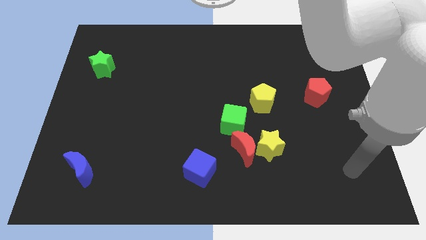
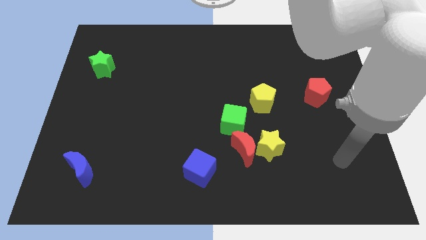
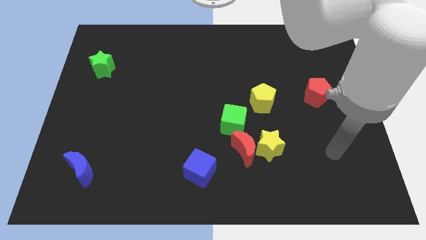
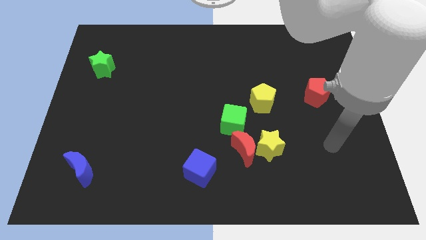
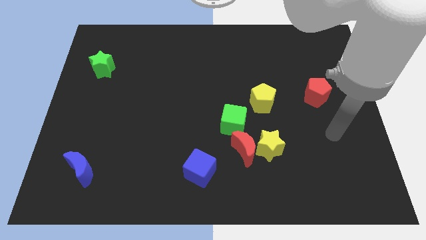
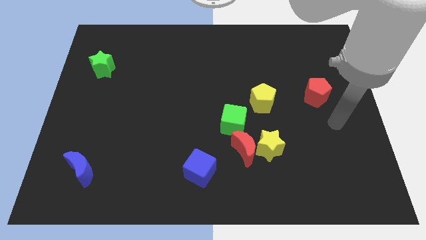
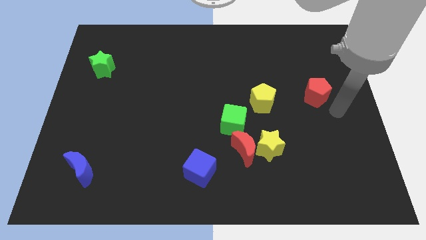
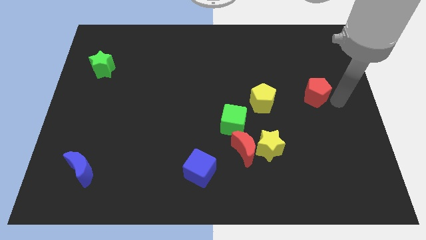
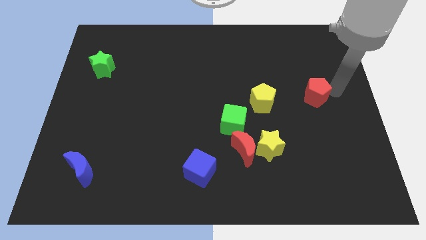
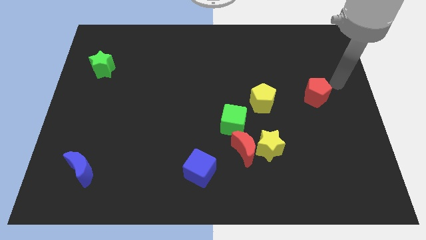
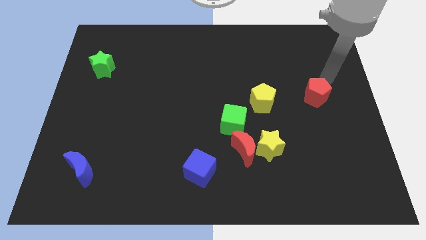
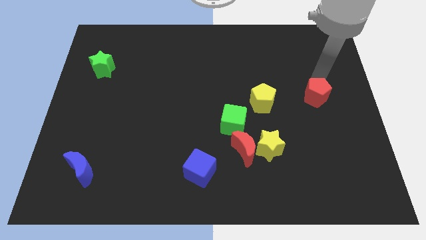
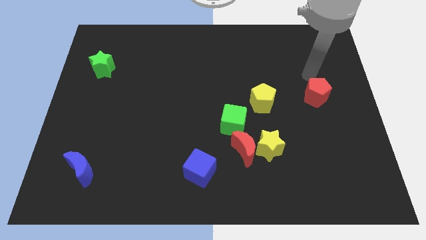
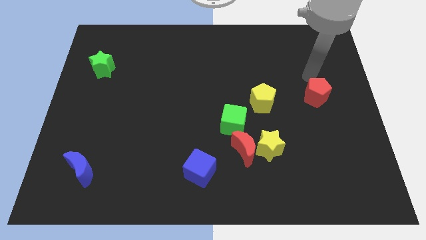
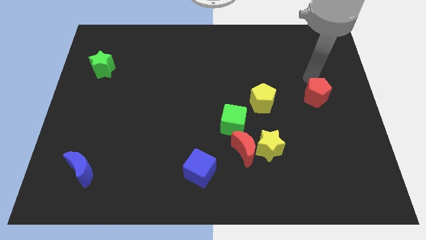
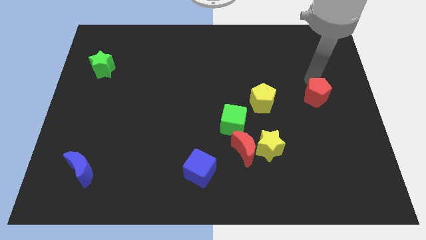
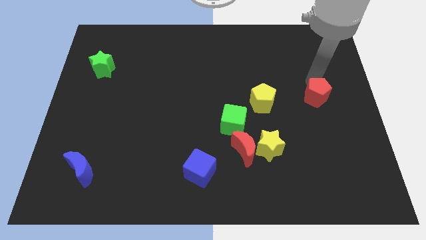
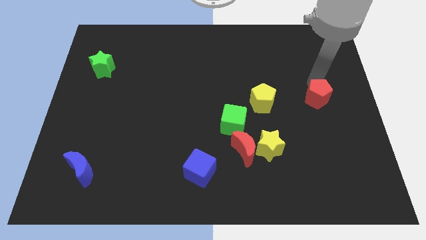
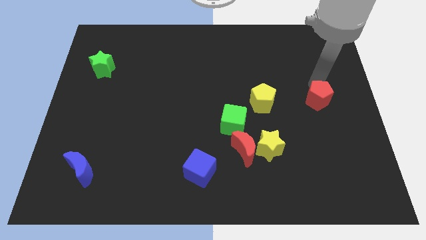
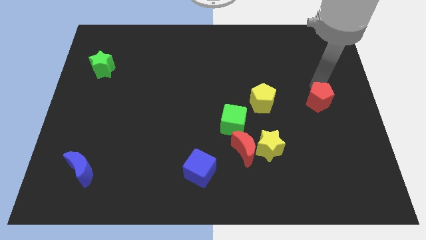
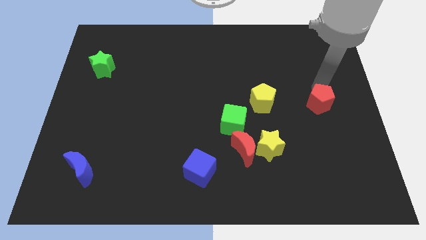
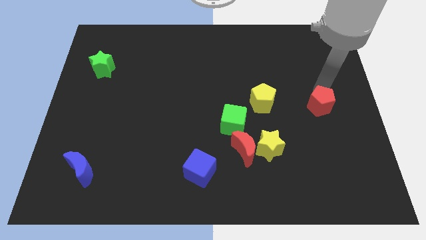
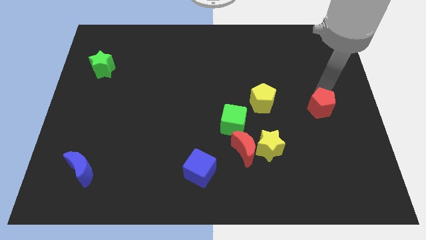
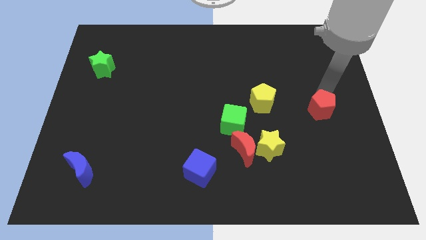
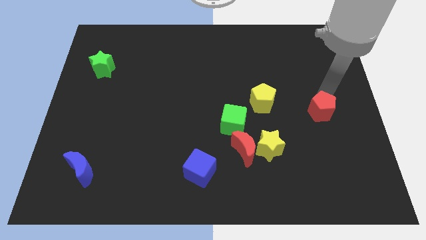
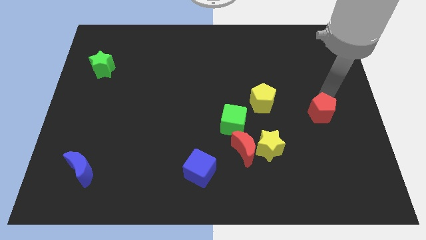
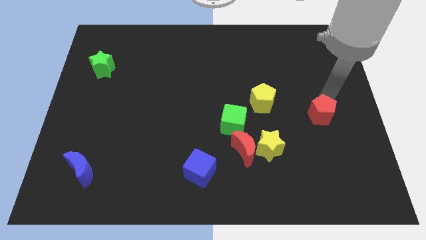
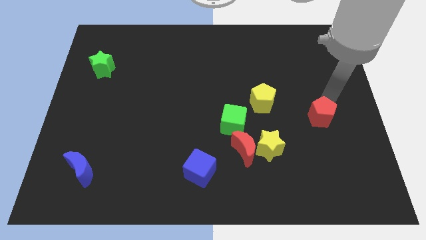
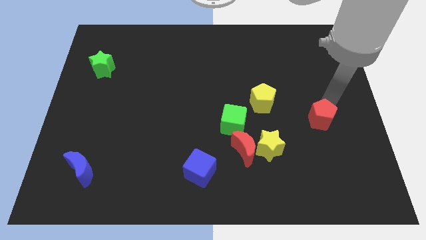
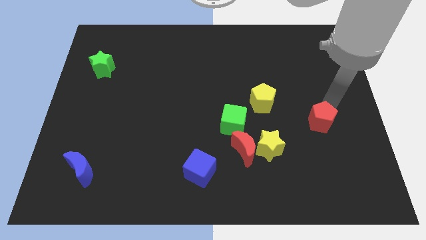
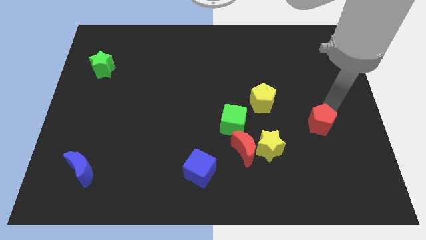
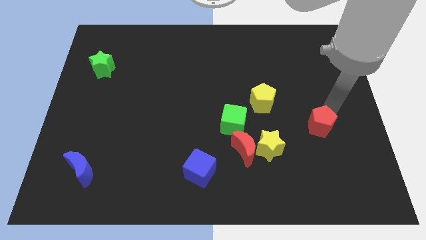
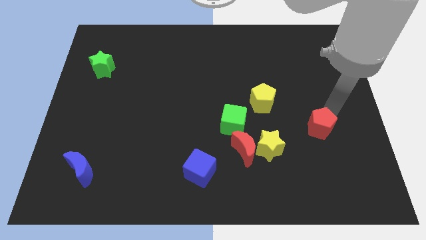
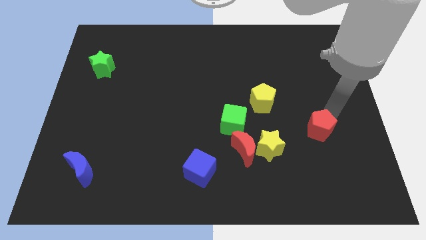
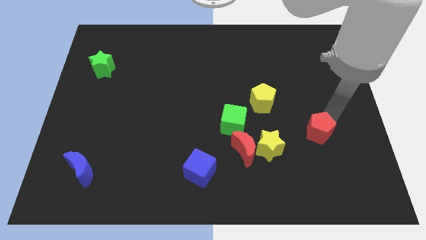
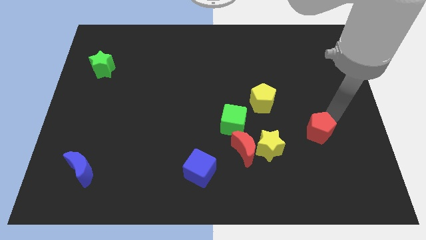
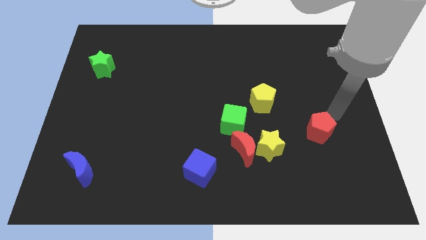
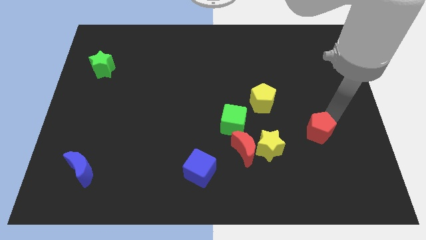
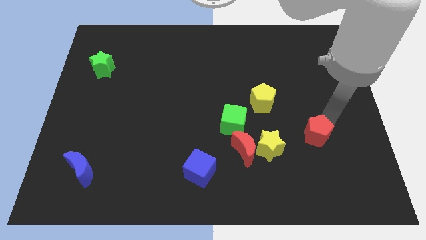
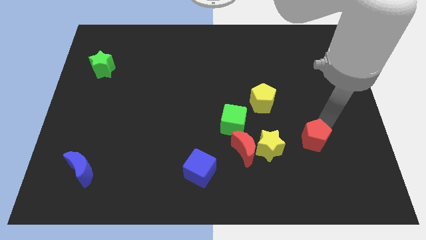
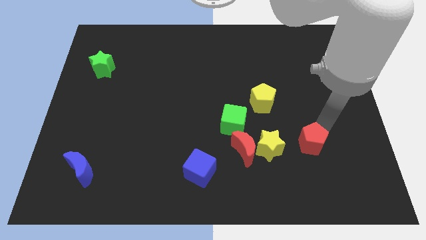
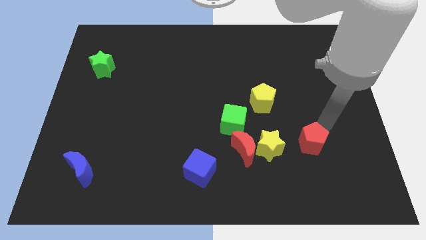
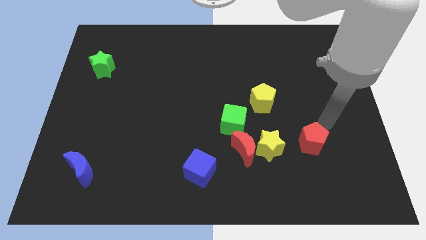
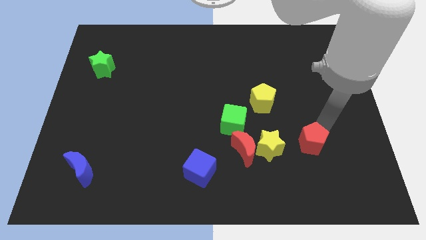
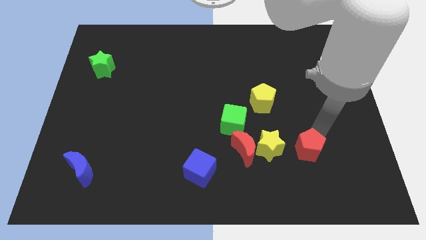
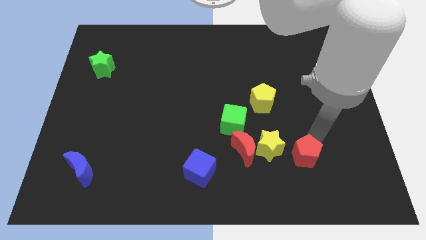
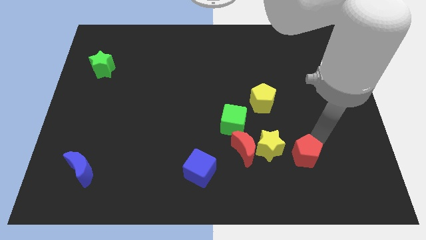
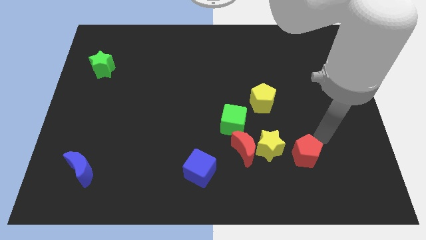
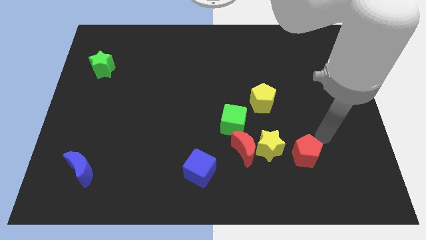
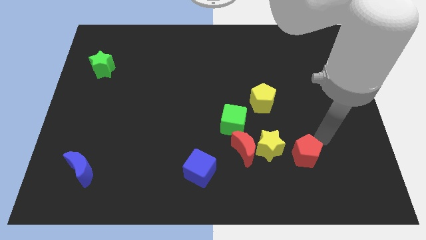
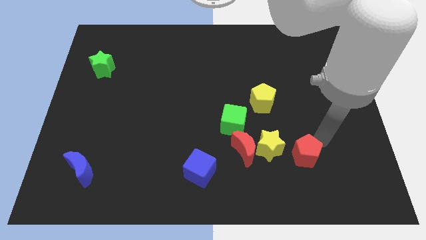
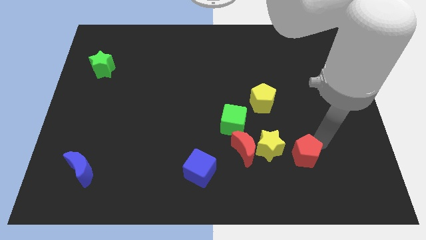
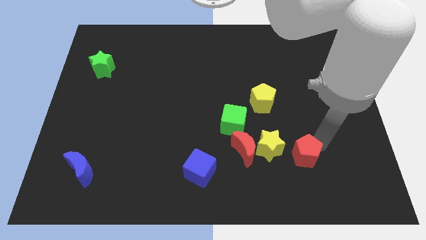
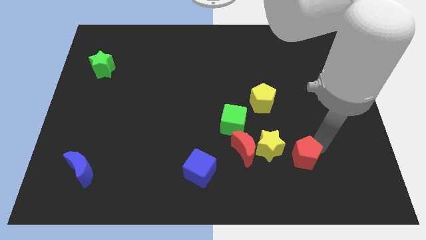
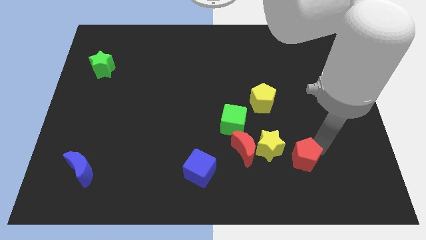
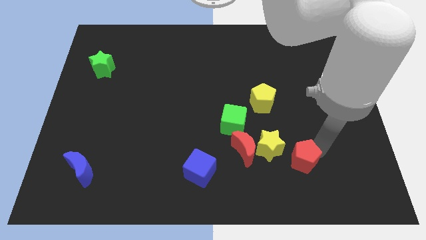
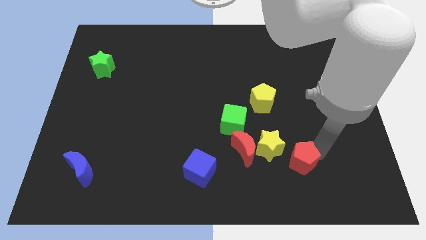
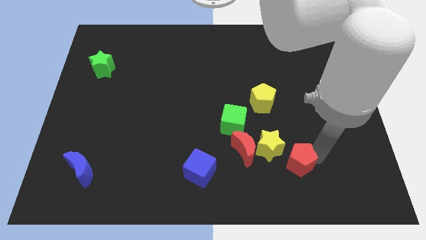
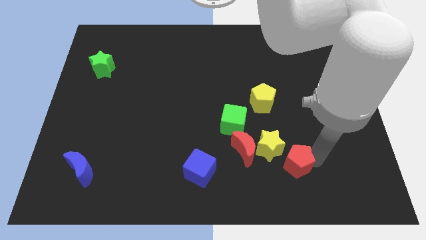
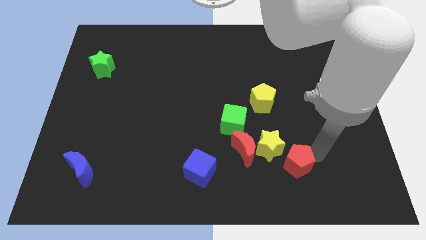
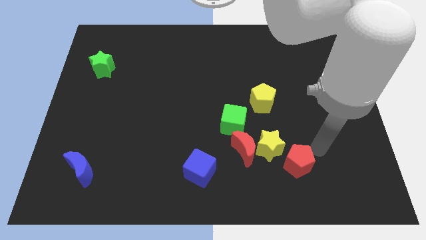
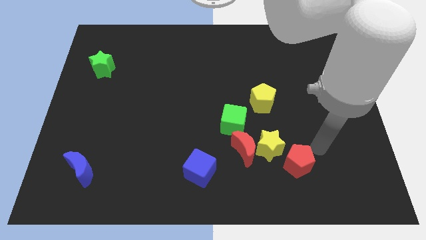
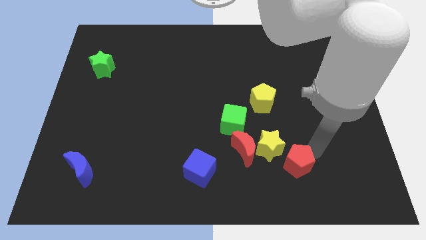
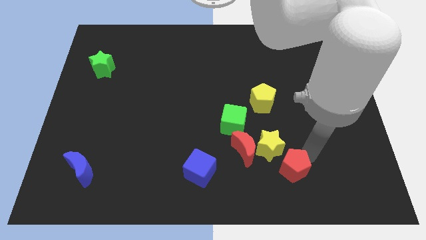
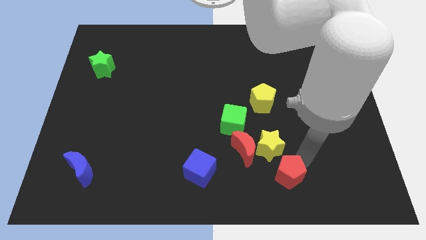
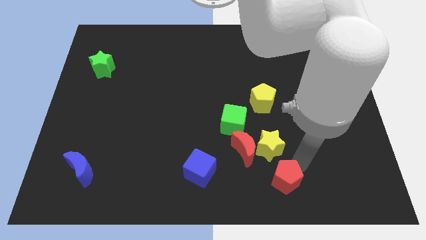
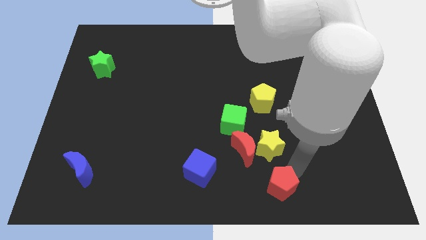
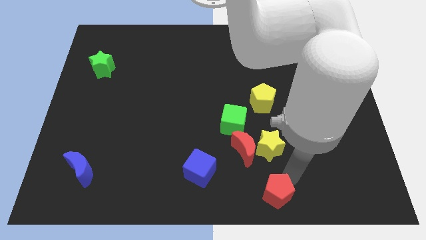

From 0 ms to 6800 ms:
move the red pentagon to the bottom side
